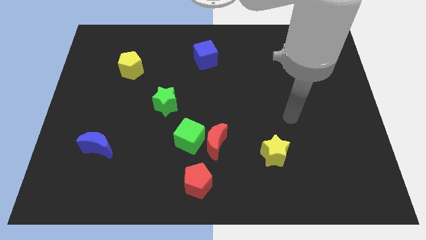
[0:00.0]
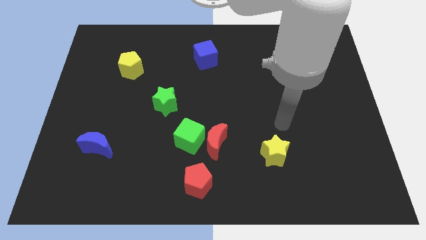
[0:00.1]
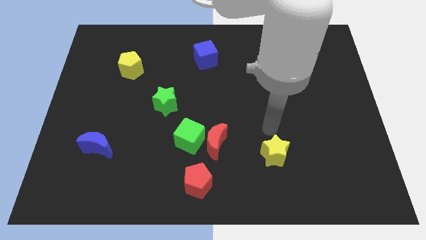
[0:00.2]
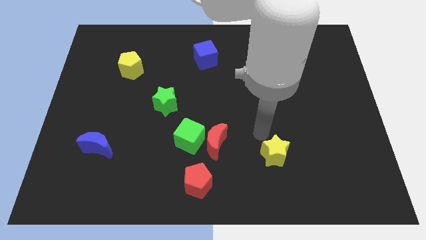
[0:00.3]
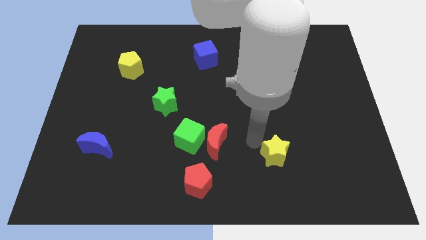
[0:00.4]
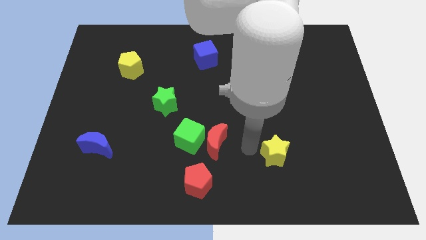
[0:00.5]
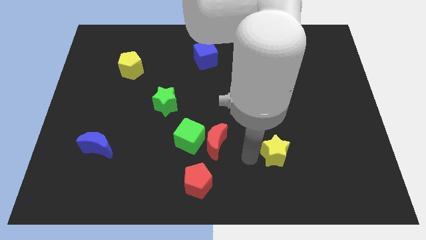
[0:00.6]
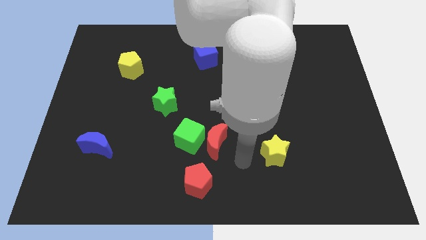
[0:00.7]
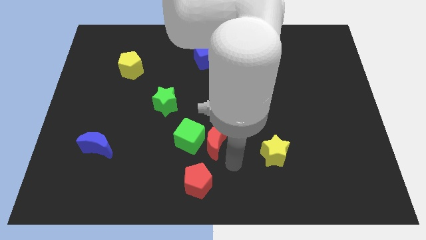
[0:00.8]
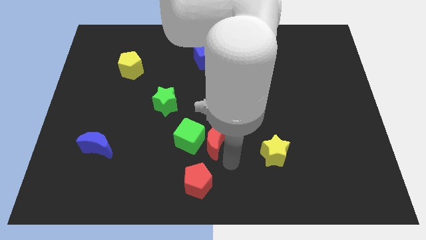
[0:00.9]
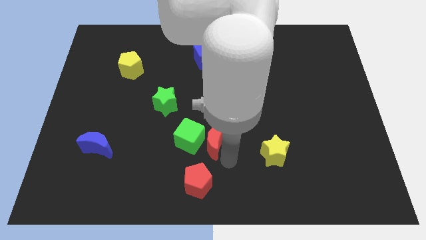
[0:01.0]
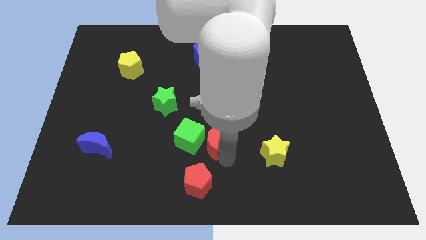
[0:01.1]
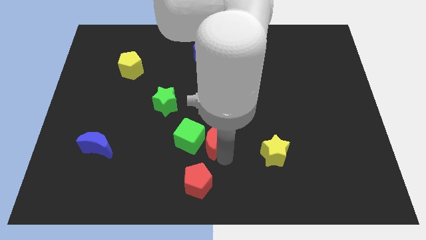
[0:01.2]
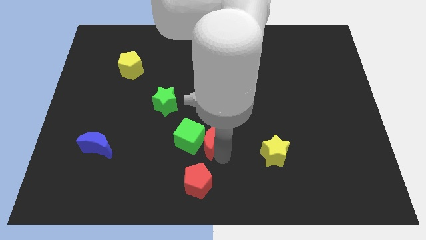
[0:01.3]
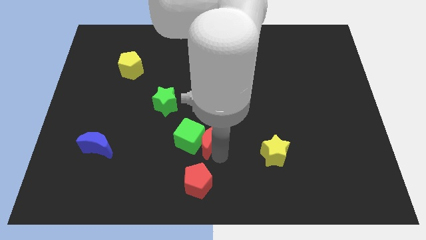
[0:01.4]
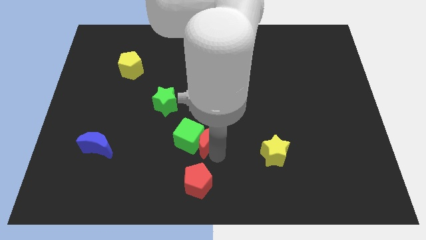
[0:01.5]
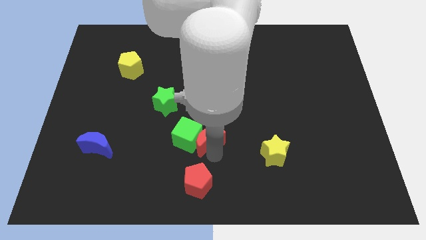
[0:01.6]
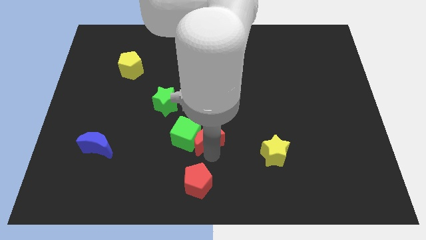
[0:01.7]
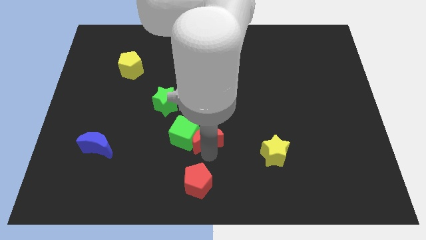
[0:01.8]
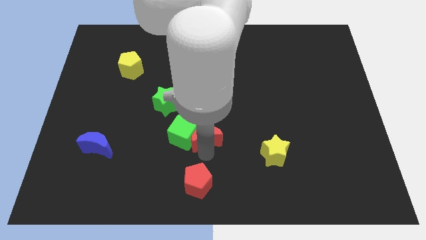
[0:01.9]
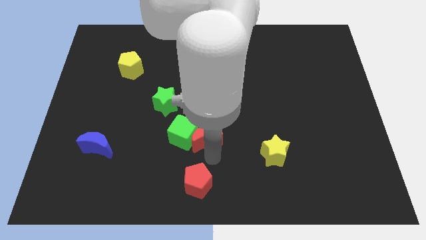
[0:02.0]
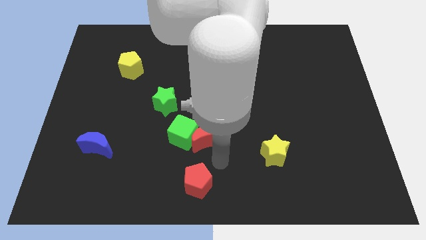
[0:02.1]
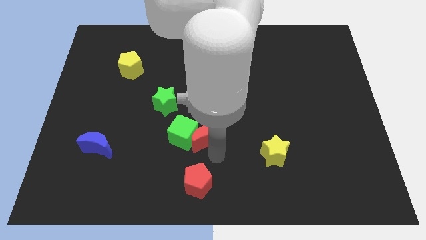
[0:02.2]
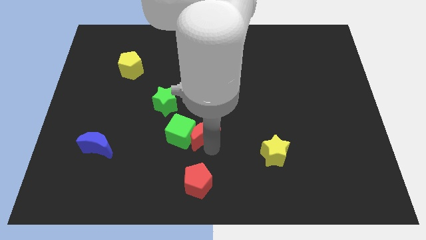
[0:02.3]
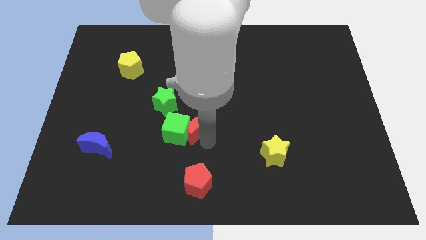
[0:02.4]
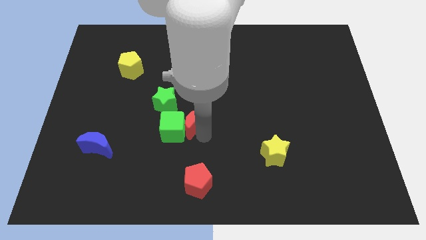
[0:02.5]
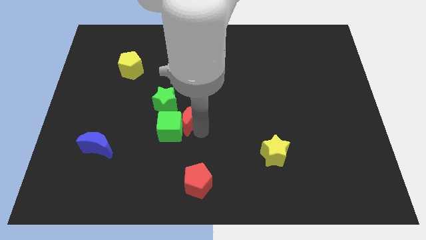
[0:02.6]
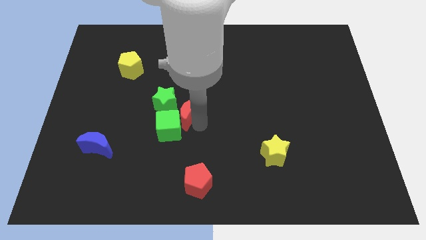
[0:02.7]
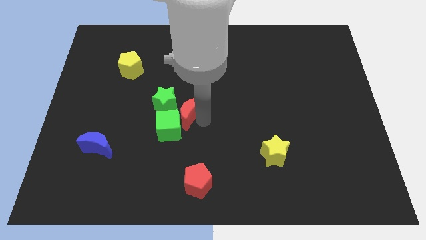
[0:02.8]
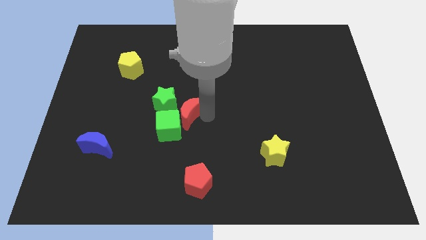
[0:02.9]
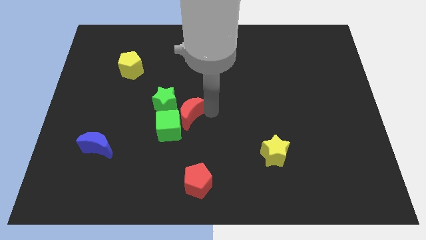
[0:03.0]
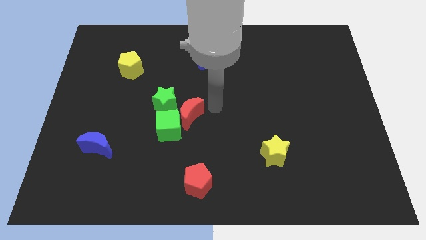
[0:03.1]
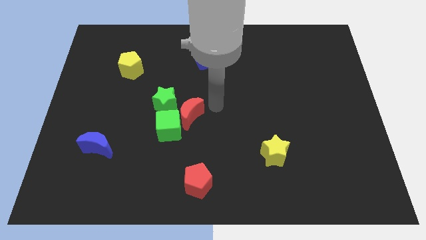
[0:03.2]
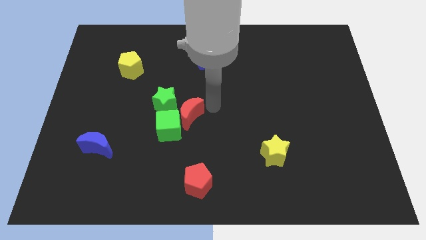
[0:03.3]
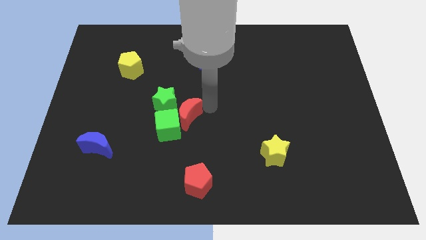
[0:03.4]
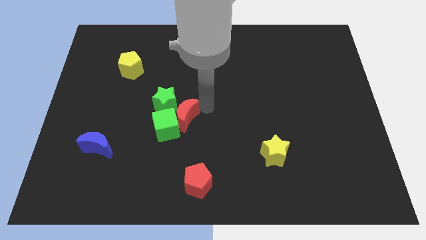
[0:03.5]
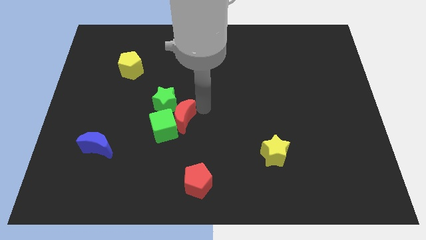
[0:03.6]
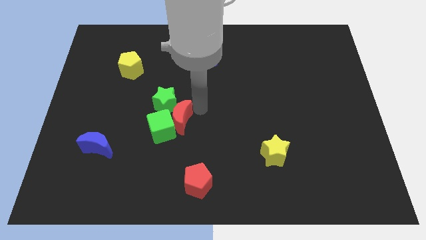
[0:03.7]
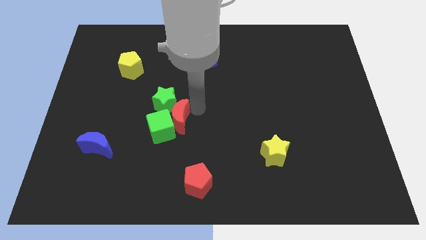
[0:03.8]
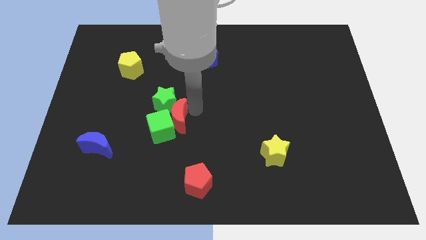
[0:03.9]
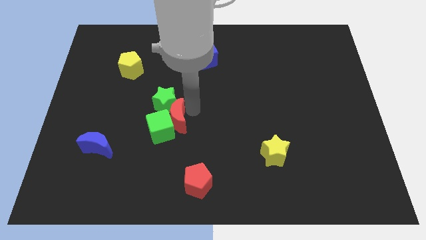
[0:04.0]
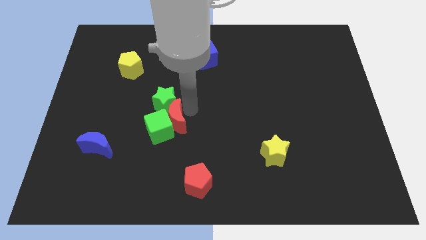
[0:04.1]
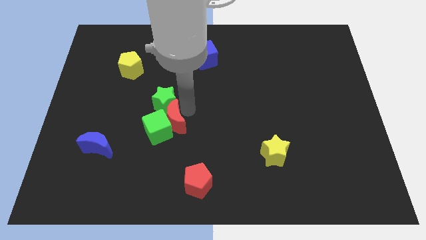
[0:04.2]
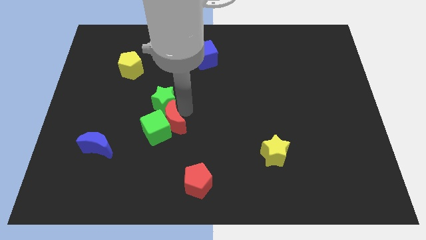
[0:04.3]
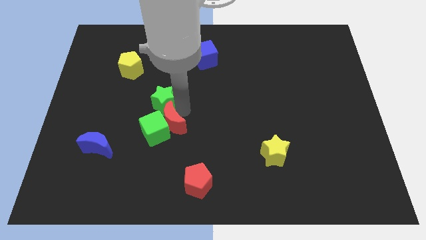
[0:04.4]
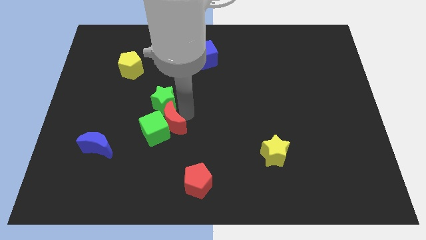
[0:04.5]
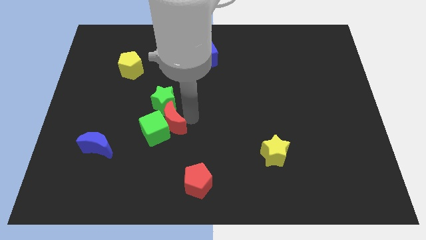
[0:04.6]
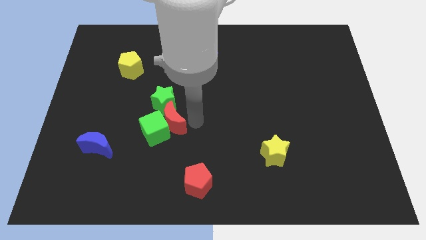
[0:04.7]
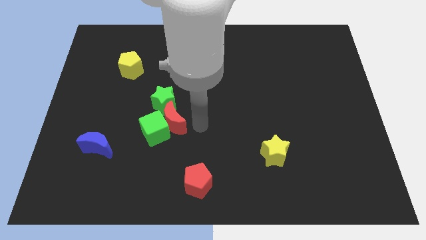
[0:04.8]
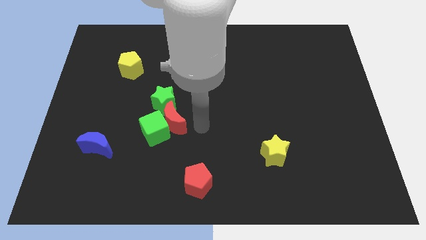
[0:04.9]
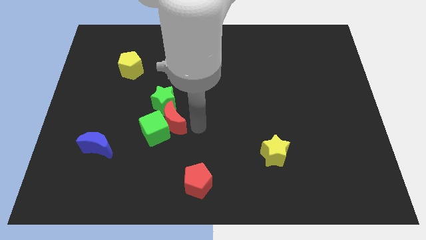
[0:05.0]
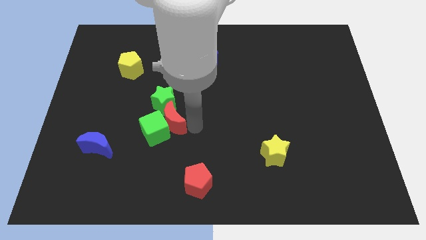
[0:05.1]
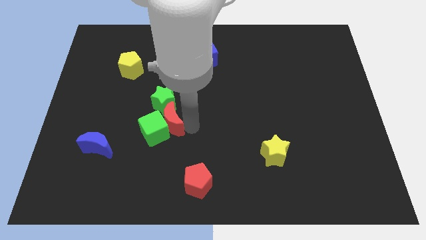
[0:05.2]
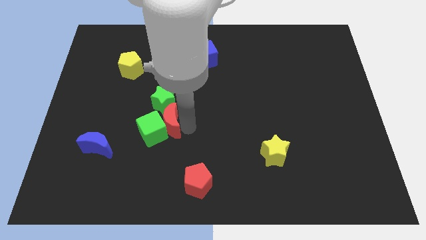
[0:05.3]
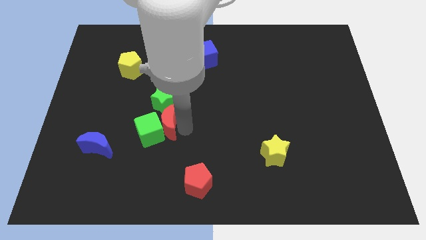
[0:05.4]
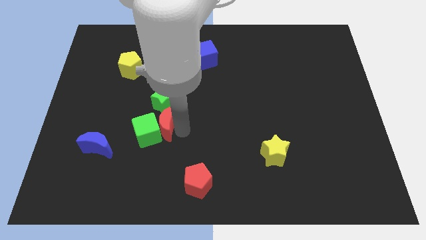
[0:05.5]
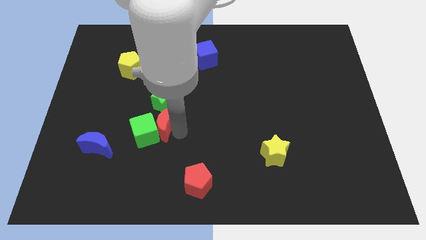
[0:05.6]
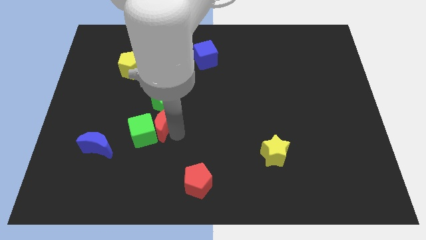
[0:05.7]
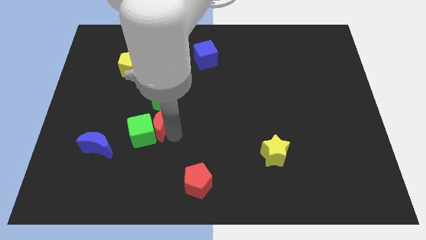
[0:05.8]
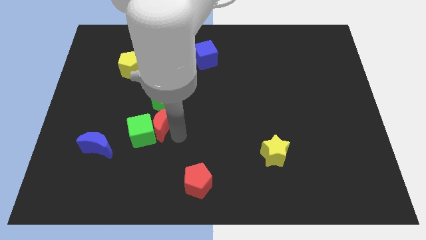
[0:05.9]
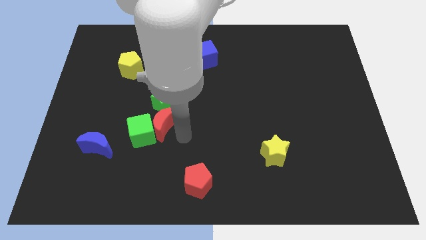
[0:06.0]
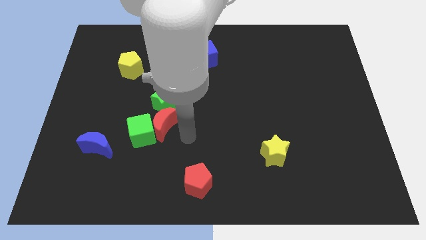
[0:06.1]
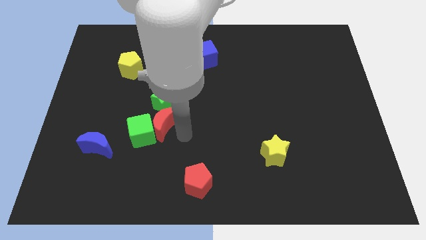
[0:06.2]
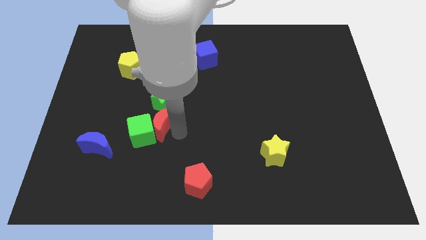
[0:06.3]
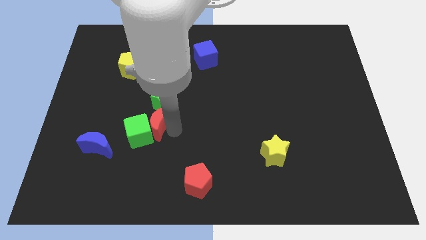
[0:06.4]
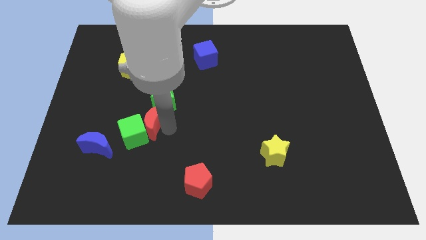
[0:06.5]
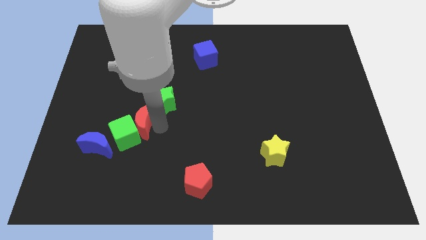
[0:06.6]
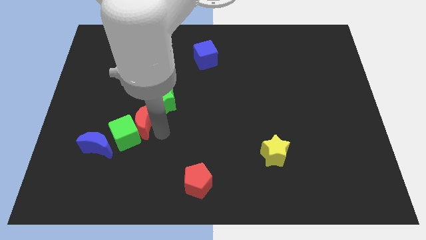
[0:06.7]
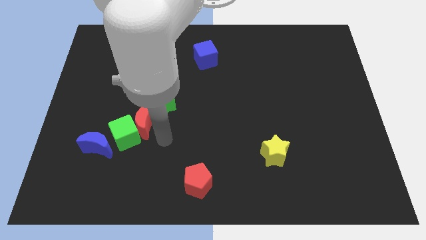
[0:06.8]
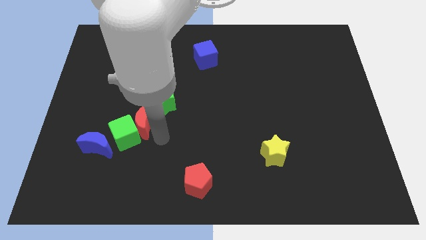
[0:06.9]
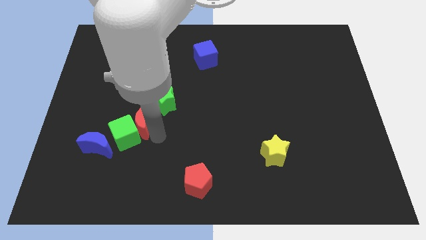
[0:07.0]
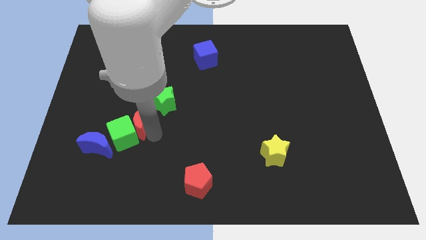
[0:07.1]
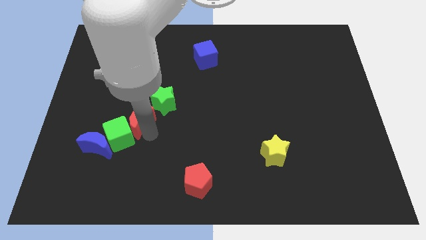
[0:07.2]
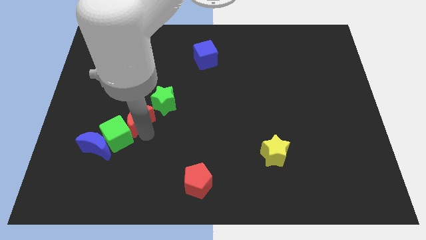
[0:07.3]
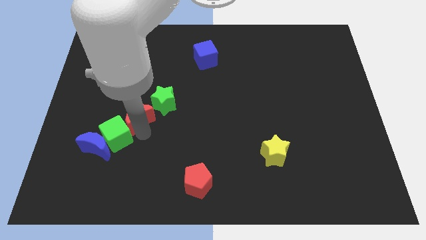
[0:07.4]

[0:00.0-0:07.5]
slide the red moon to the left side of the green star
